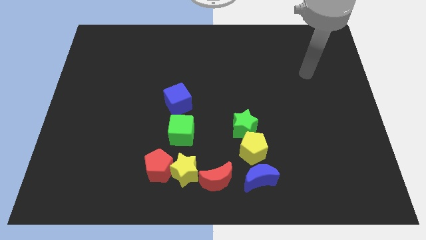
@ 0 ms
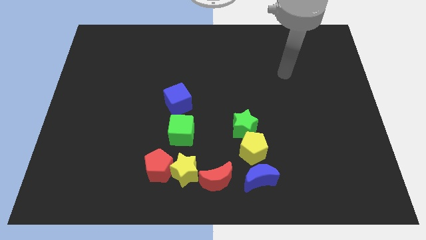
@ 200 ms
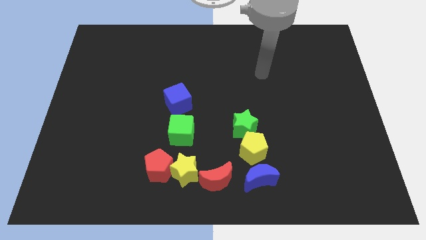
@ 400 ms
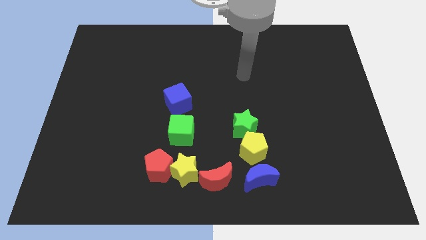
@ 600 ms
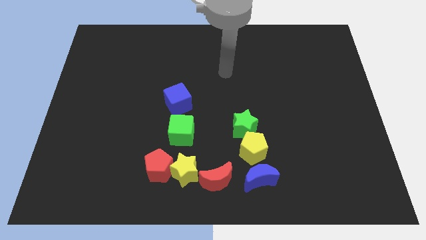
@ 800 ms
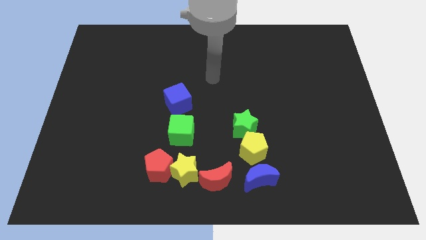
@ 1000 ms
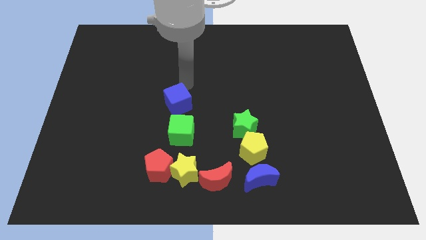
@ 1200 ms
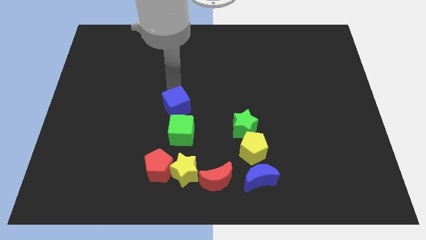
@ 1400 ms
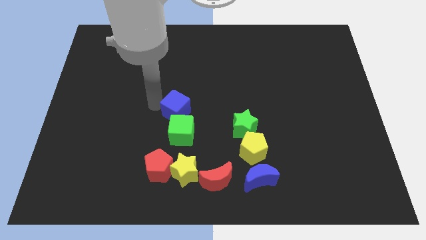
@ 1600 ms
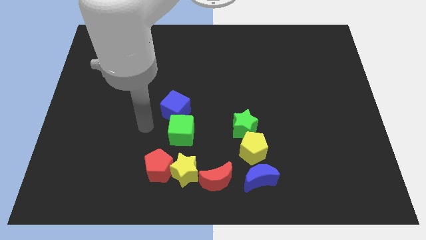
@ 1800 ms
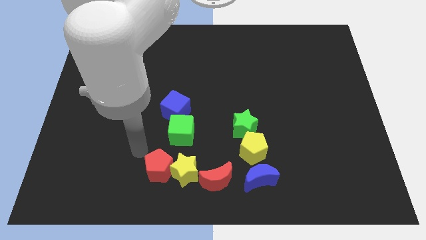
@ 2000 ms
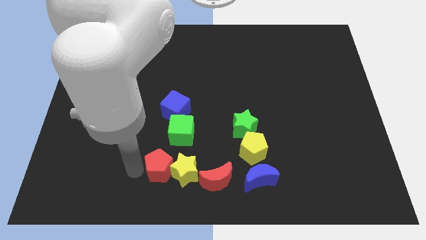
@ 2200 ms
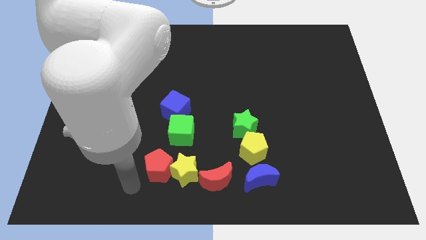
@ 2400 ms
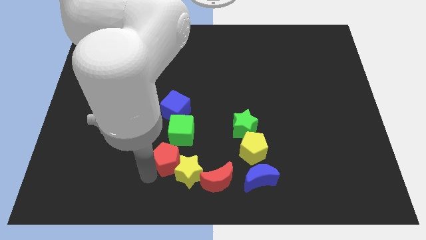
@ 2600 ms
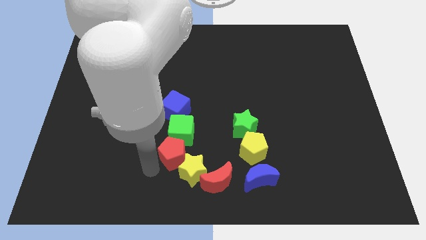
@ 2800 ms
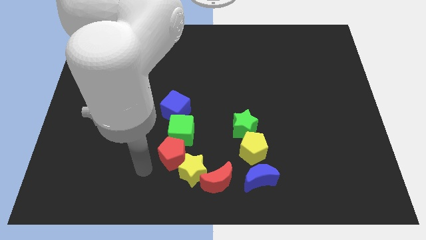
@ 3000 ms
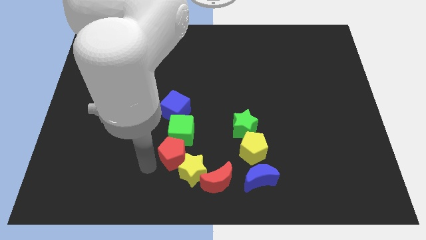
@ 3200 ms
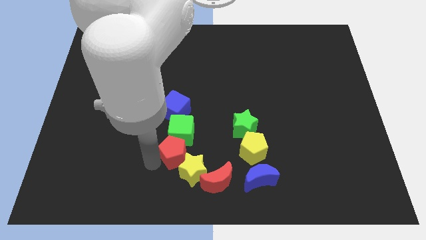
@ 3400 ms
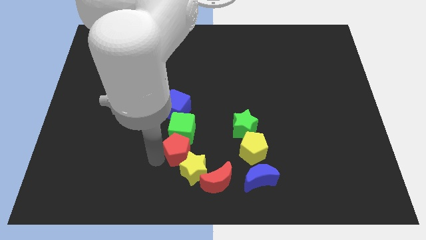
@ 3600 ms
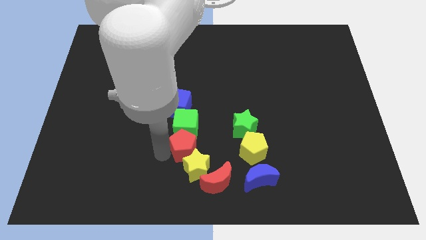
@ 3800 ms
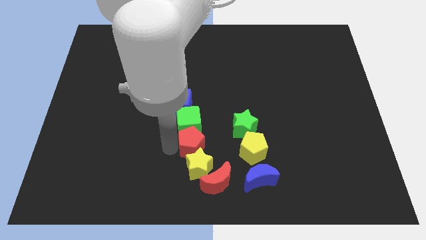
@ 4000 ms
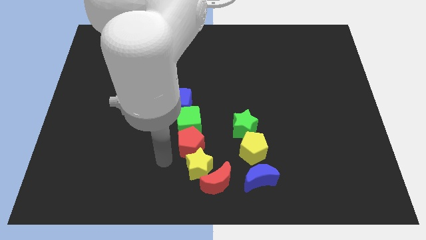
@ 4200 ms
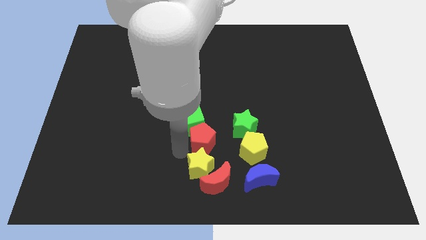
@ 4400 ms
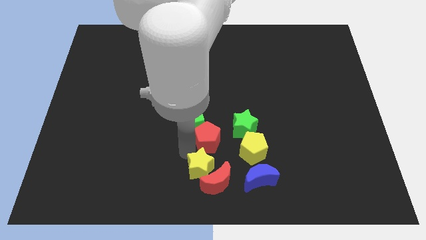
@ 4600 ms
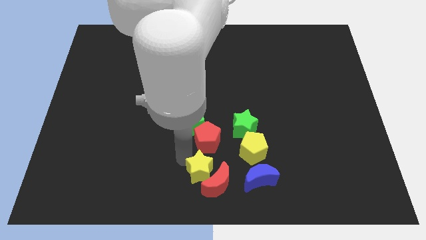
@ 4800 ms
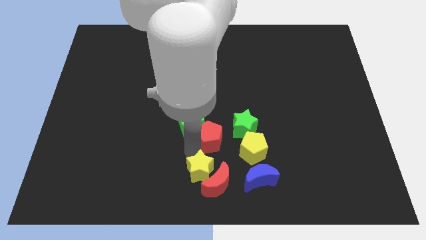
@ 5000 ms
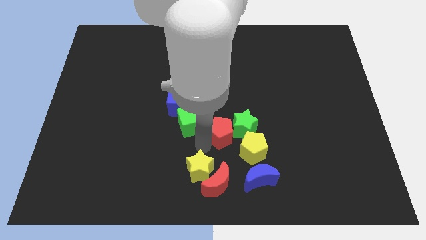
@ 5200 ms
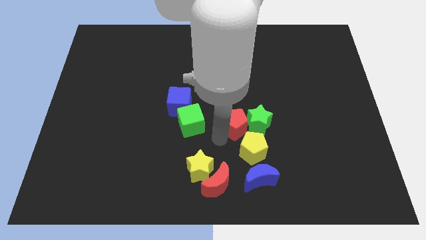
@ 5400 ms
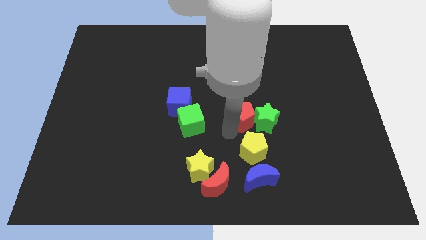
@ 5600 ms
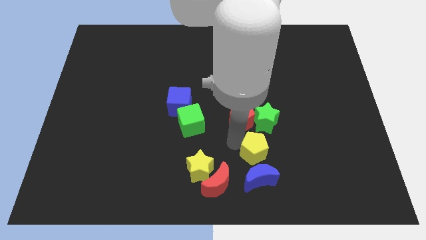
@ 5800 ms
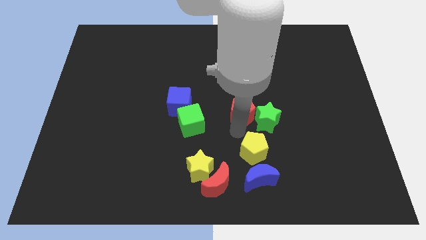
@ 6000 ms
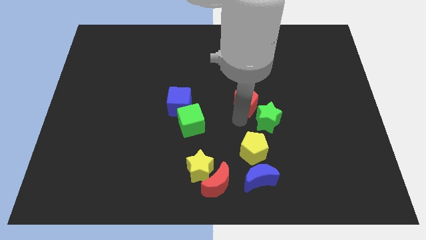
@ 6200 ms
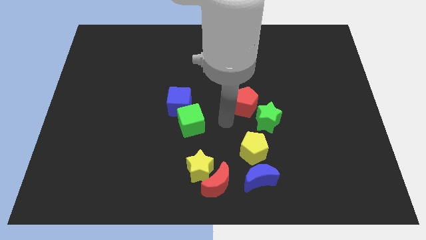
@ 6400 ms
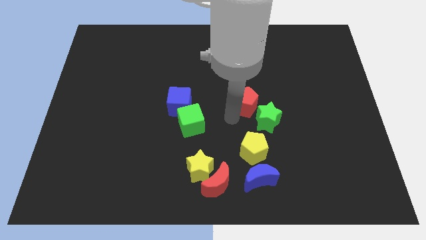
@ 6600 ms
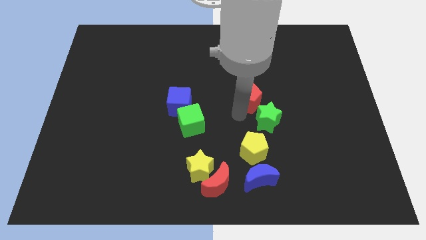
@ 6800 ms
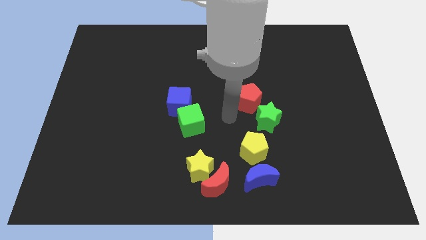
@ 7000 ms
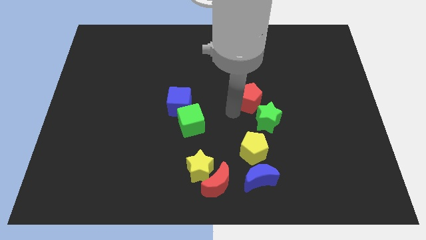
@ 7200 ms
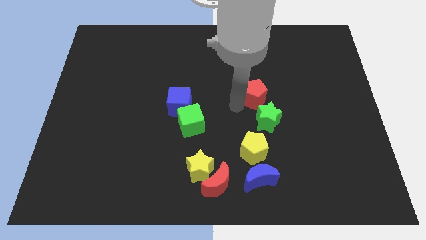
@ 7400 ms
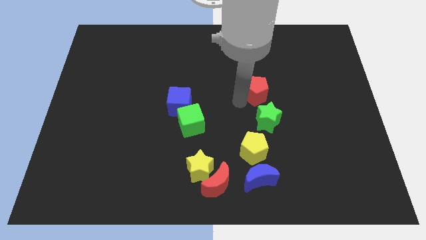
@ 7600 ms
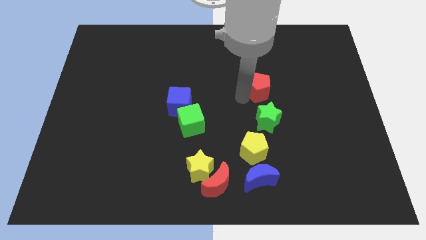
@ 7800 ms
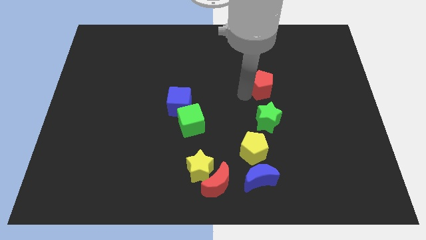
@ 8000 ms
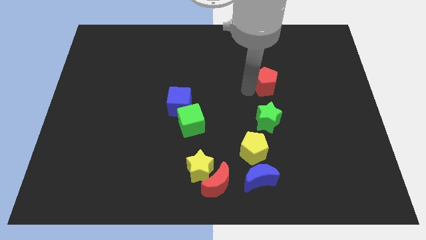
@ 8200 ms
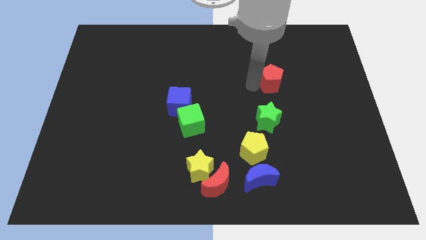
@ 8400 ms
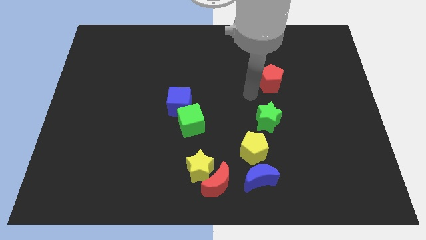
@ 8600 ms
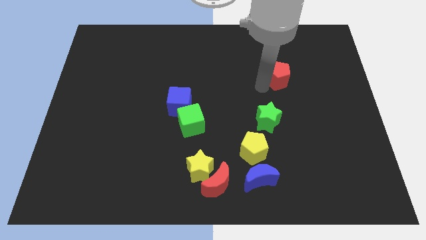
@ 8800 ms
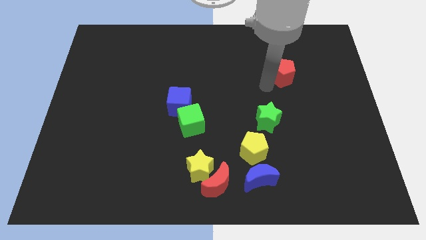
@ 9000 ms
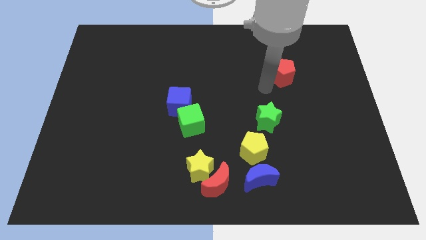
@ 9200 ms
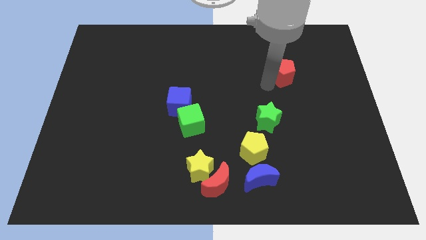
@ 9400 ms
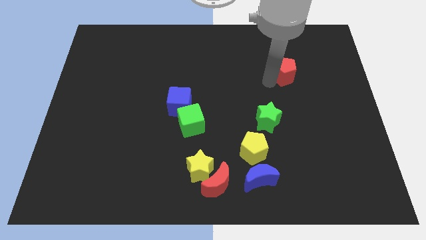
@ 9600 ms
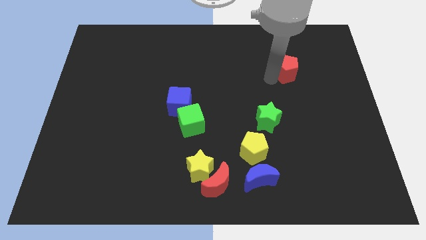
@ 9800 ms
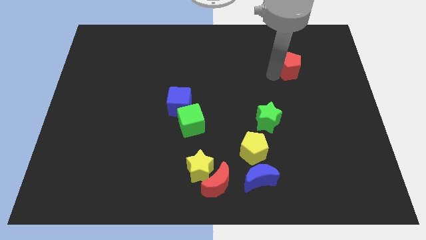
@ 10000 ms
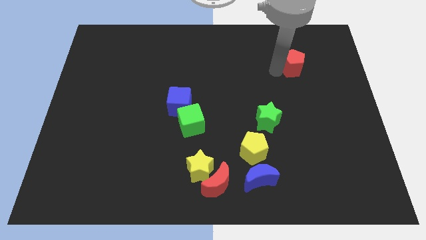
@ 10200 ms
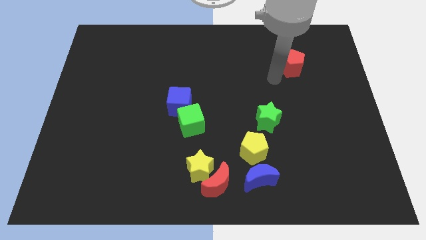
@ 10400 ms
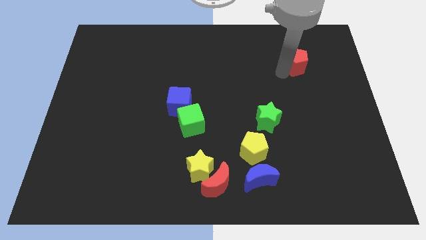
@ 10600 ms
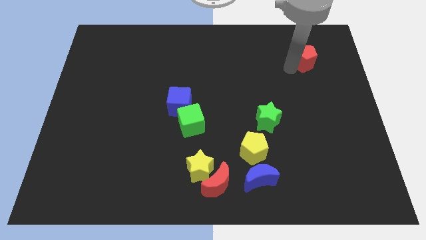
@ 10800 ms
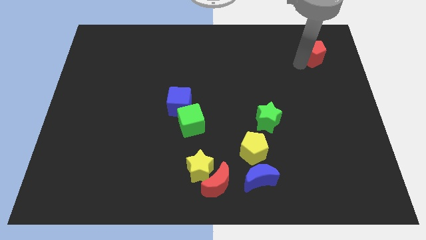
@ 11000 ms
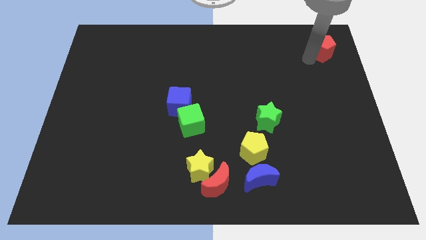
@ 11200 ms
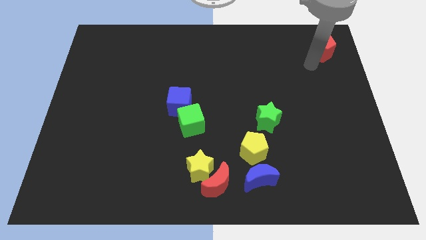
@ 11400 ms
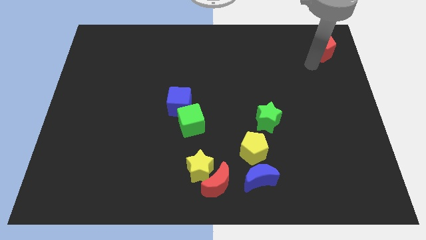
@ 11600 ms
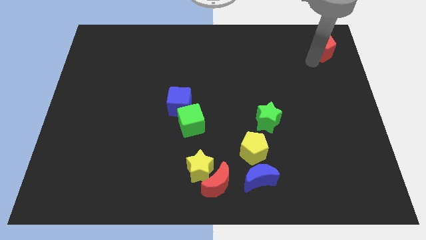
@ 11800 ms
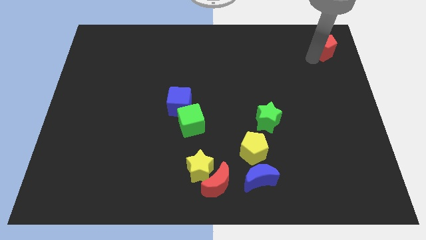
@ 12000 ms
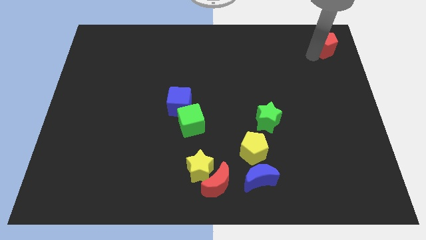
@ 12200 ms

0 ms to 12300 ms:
slide the red pentagon to the upper right corner

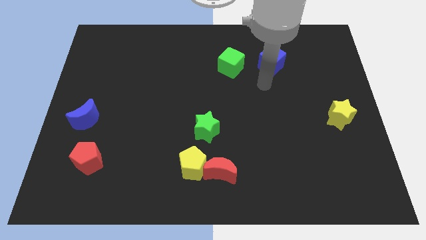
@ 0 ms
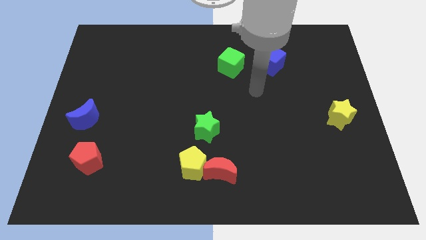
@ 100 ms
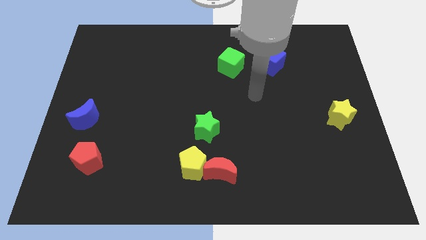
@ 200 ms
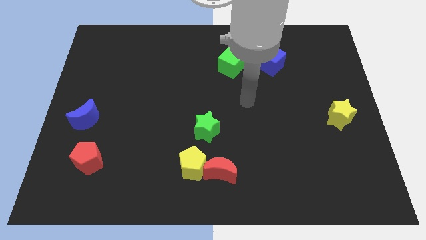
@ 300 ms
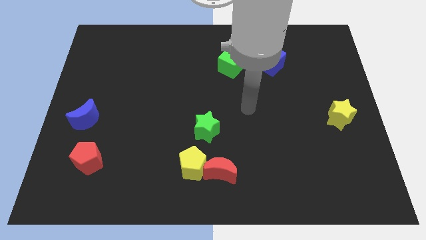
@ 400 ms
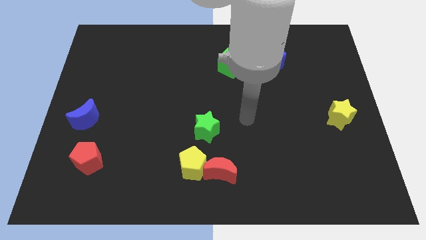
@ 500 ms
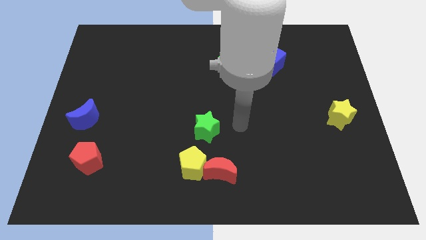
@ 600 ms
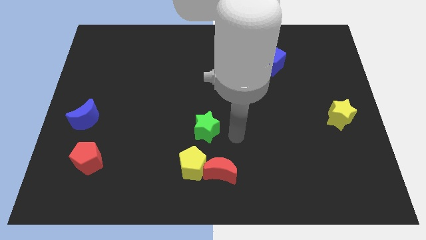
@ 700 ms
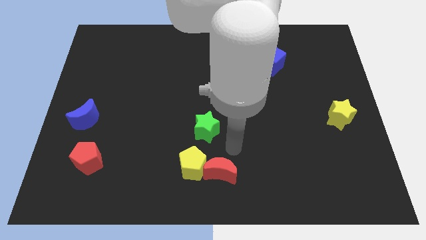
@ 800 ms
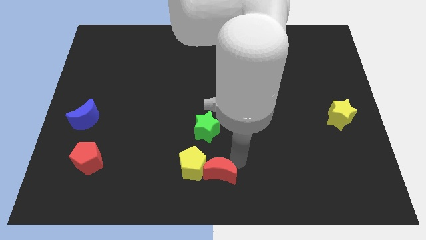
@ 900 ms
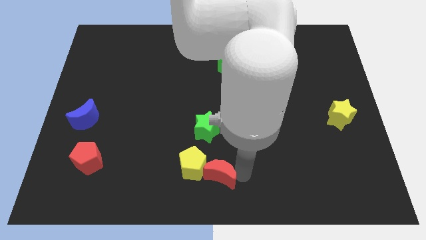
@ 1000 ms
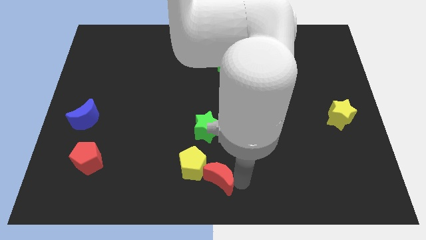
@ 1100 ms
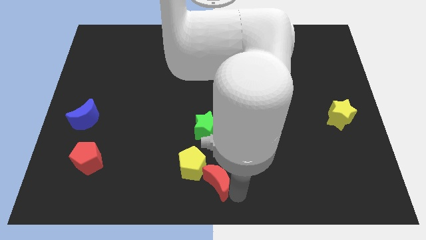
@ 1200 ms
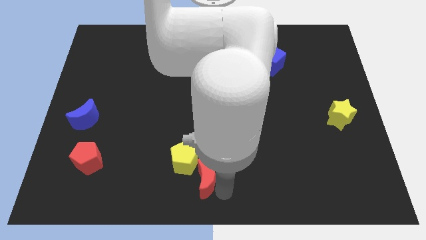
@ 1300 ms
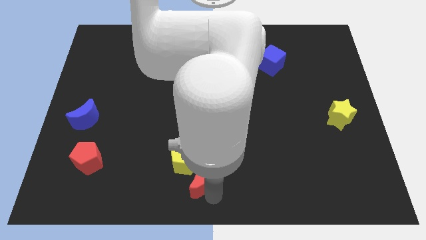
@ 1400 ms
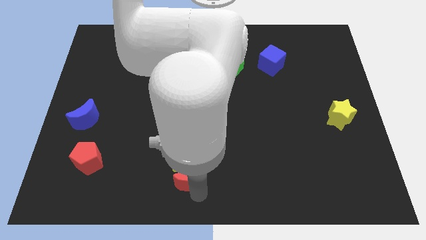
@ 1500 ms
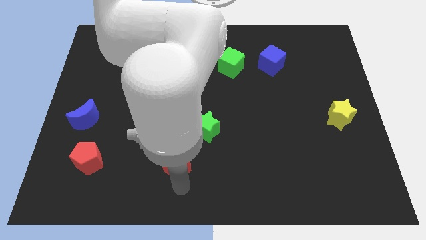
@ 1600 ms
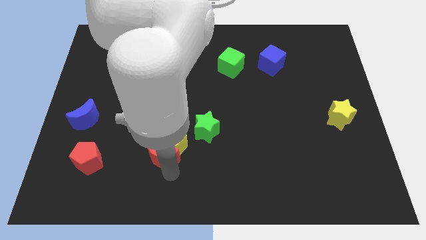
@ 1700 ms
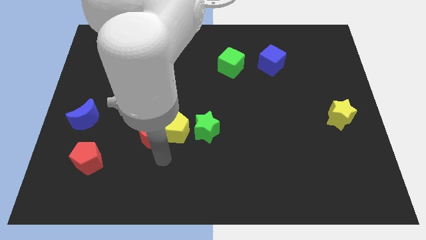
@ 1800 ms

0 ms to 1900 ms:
put the yellow pentagon to the middle of the board
